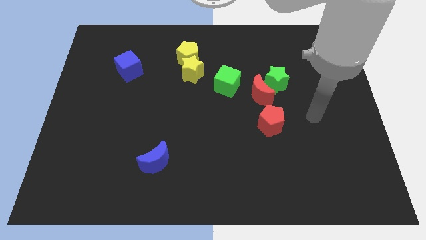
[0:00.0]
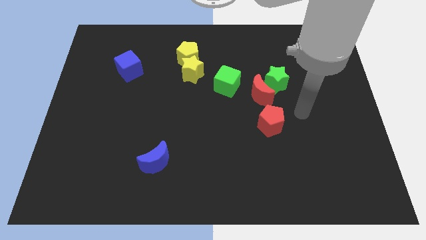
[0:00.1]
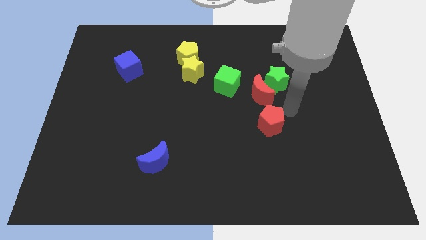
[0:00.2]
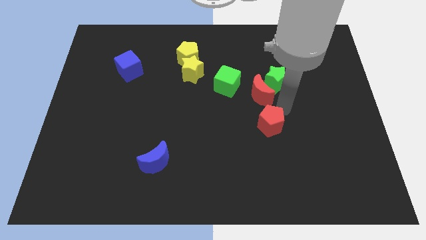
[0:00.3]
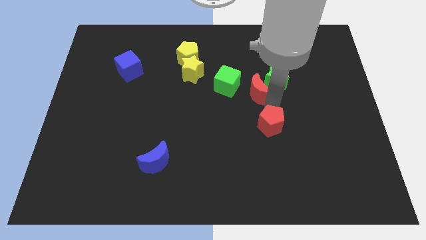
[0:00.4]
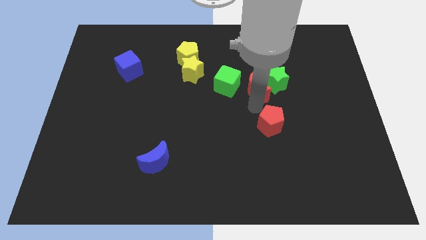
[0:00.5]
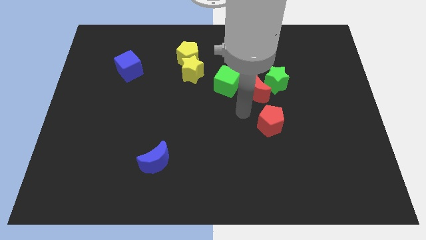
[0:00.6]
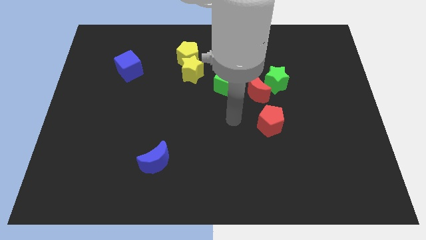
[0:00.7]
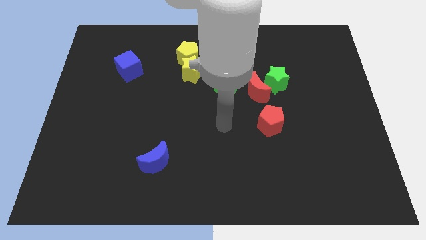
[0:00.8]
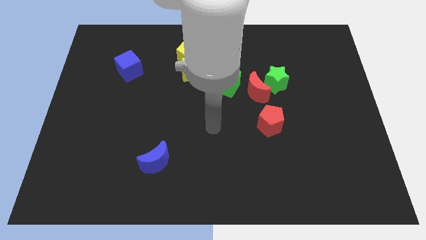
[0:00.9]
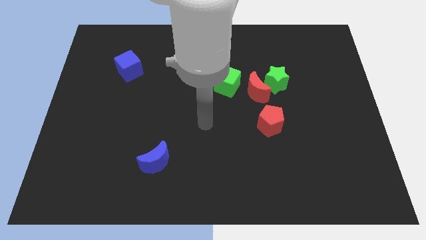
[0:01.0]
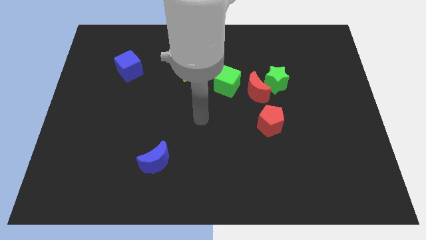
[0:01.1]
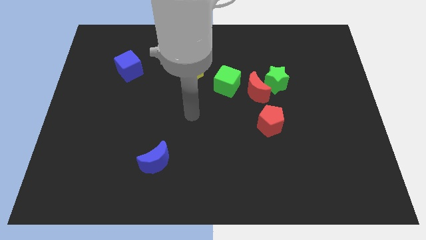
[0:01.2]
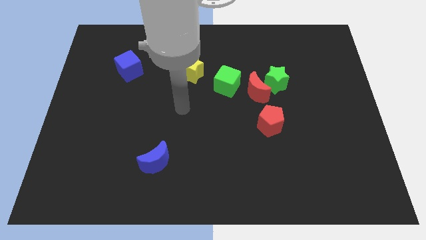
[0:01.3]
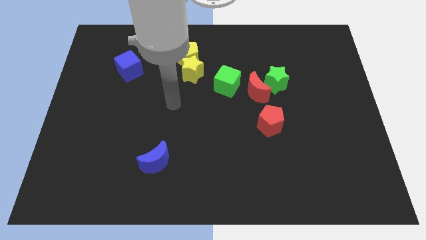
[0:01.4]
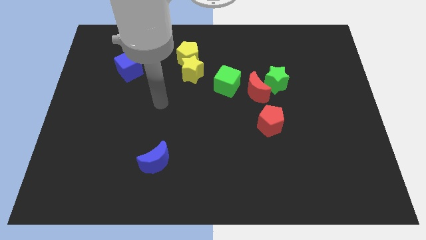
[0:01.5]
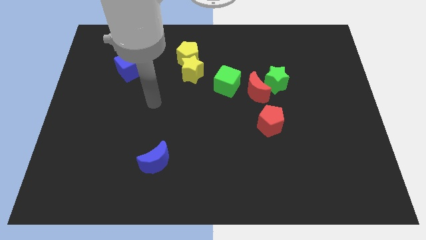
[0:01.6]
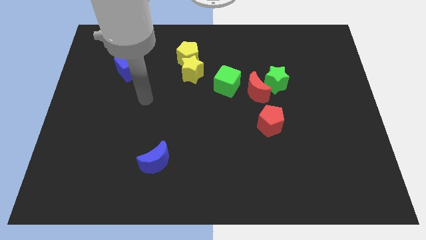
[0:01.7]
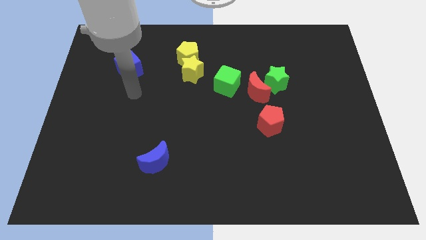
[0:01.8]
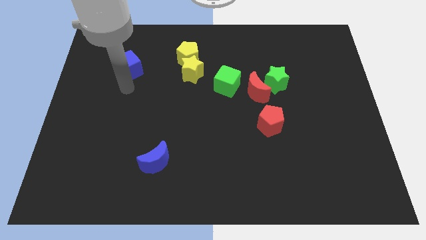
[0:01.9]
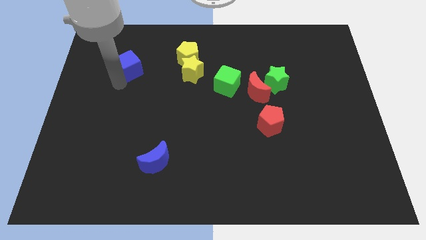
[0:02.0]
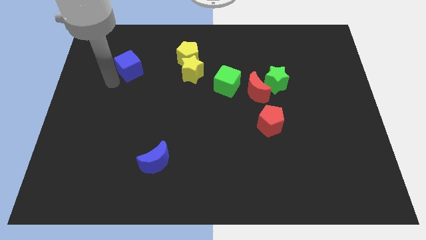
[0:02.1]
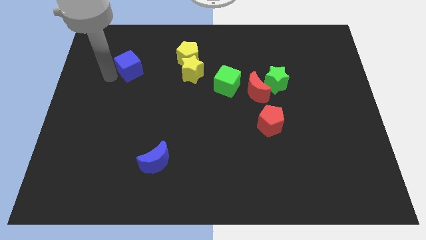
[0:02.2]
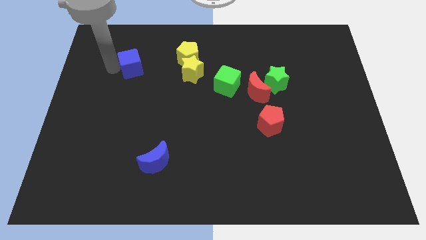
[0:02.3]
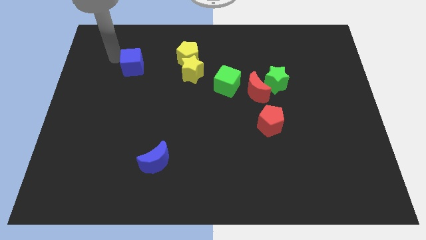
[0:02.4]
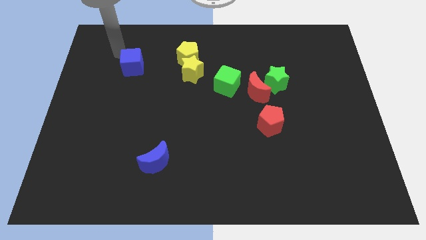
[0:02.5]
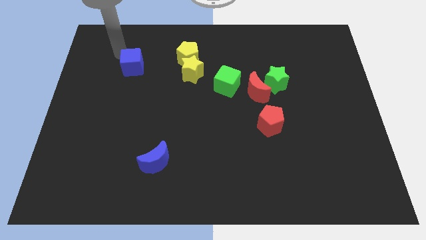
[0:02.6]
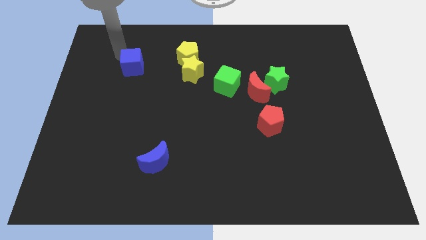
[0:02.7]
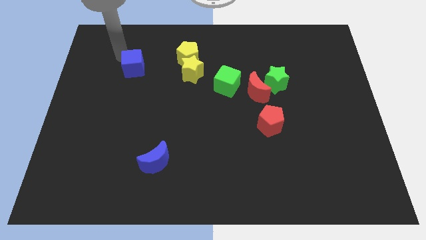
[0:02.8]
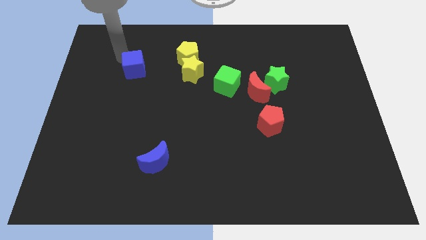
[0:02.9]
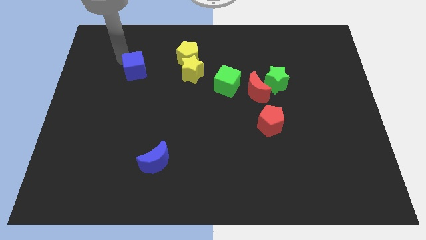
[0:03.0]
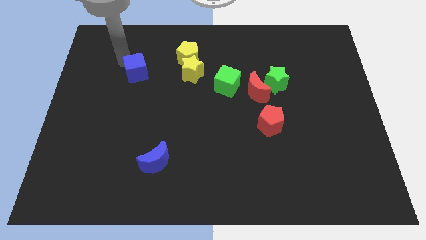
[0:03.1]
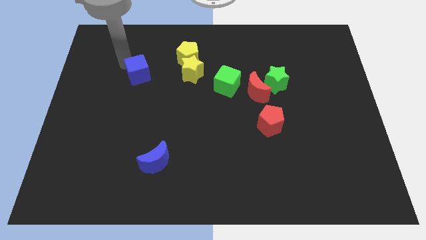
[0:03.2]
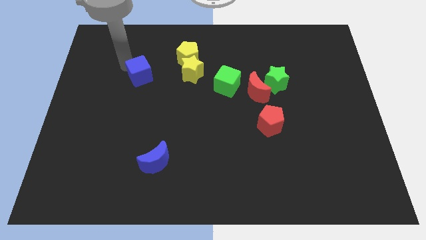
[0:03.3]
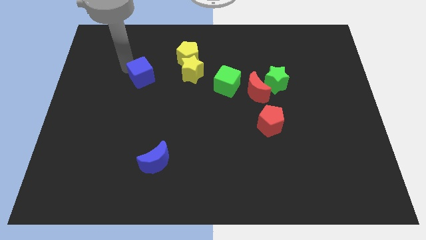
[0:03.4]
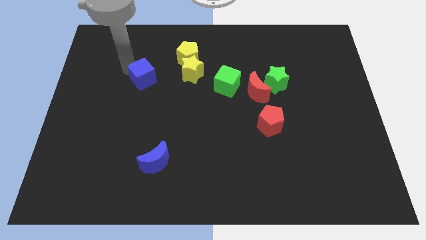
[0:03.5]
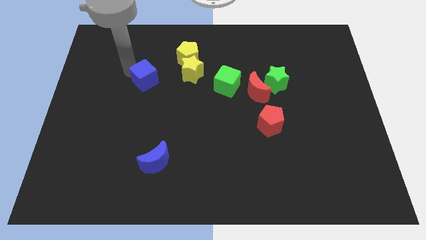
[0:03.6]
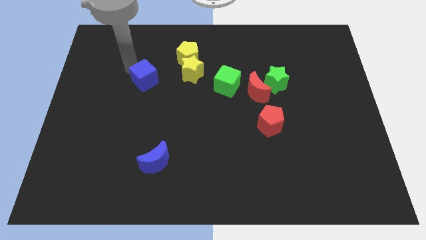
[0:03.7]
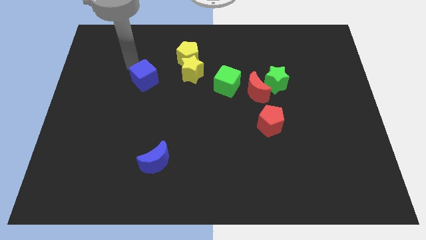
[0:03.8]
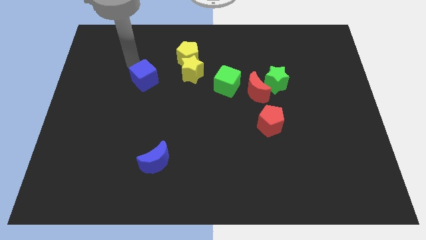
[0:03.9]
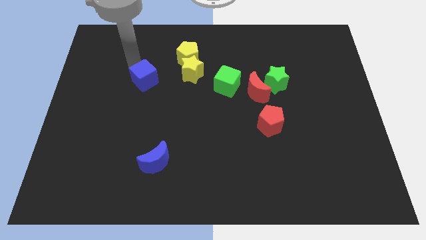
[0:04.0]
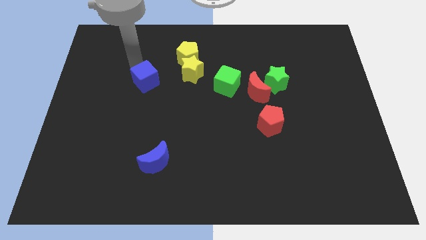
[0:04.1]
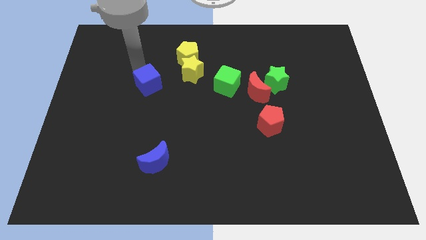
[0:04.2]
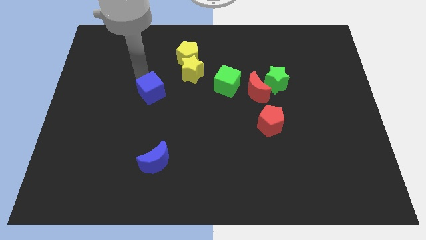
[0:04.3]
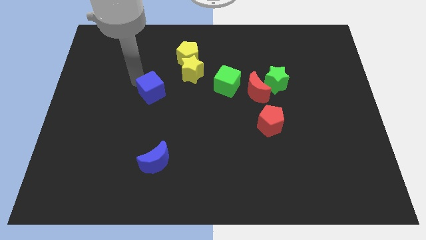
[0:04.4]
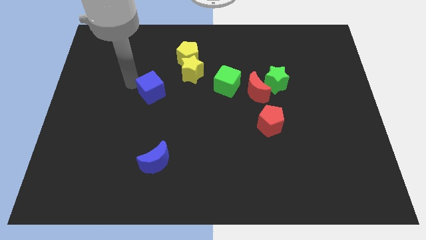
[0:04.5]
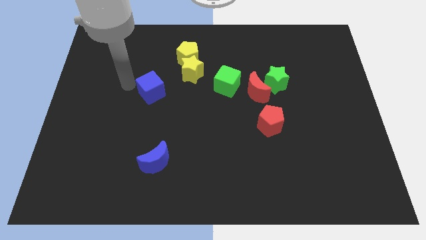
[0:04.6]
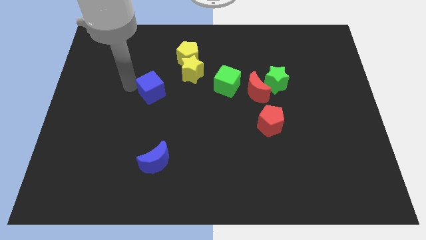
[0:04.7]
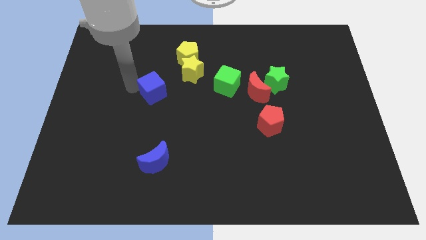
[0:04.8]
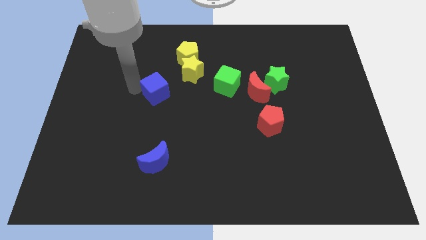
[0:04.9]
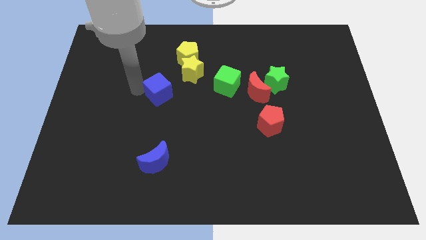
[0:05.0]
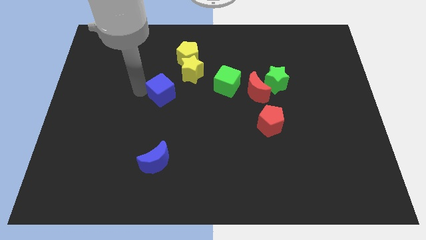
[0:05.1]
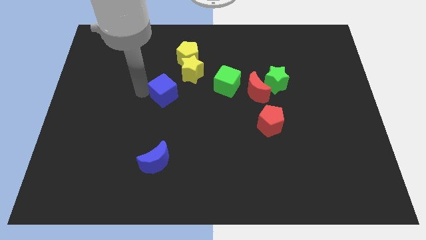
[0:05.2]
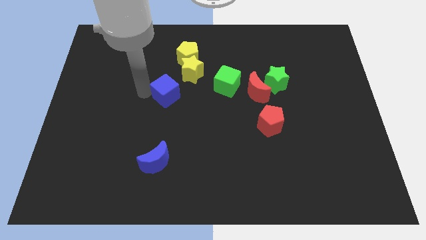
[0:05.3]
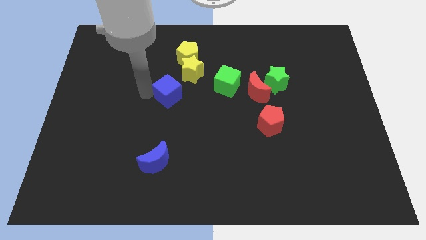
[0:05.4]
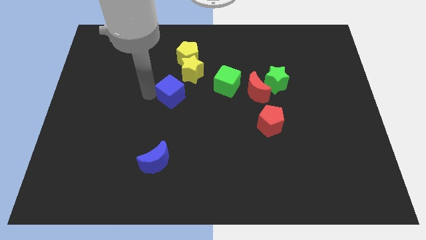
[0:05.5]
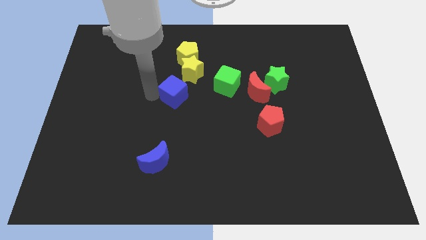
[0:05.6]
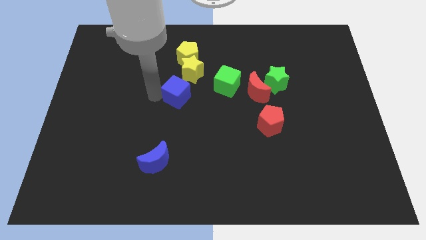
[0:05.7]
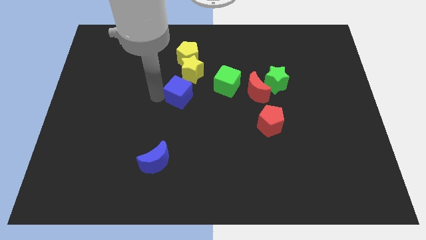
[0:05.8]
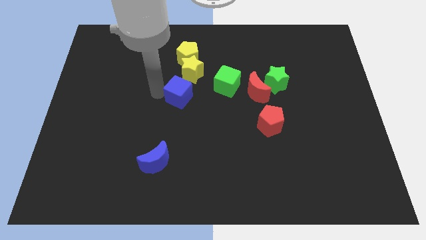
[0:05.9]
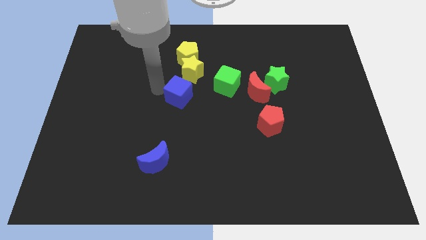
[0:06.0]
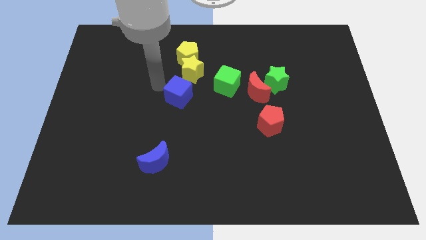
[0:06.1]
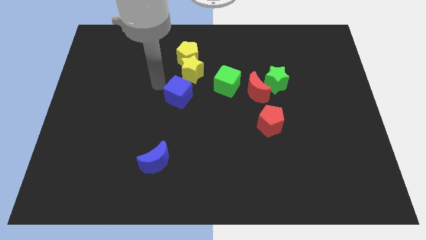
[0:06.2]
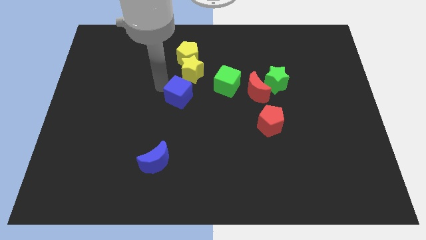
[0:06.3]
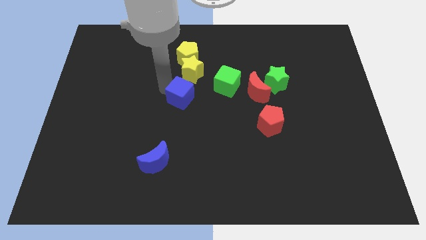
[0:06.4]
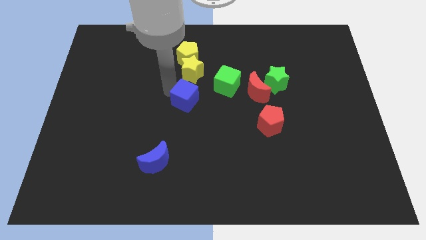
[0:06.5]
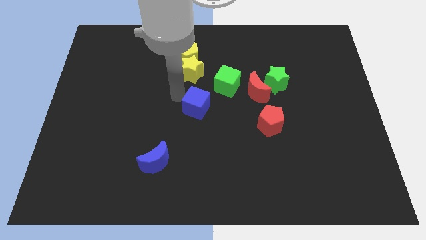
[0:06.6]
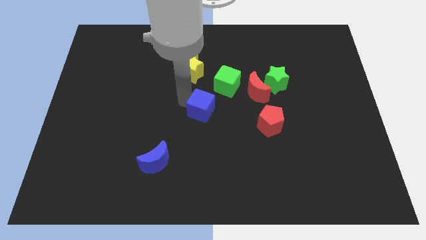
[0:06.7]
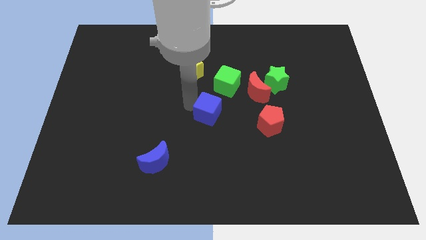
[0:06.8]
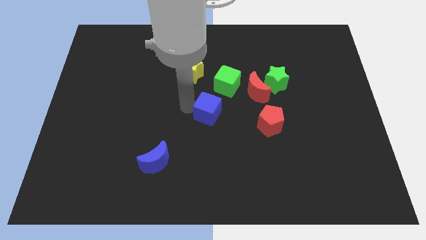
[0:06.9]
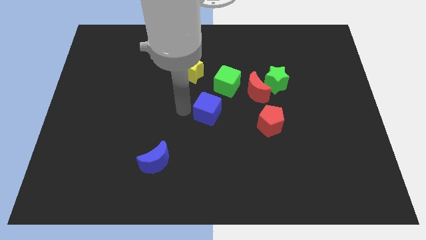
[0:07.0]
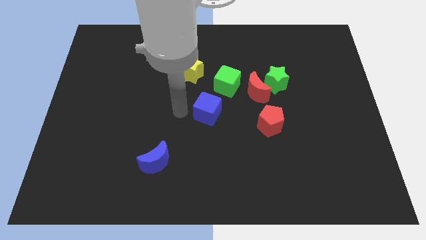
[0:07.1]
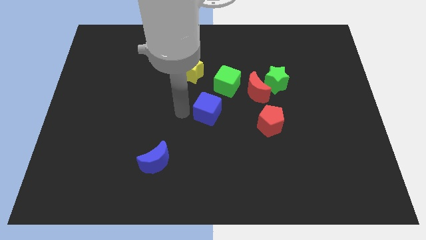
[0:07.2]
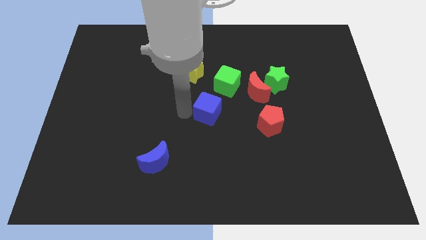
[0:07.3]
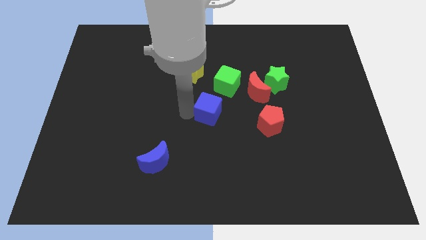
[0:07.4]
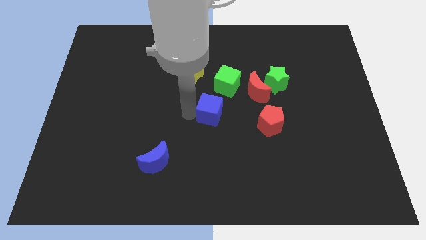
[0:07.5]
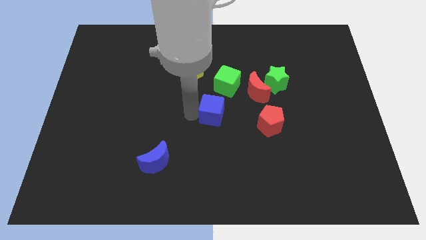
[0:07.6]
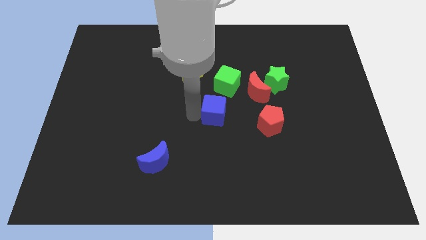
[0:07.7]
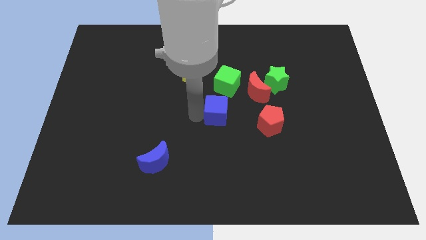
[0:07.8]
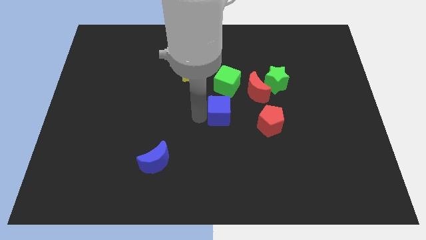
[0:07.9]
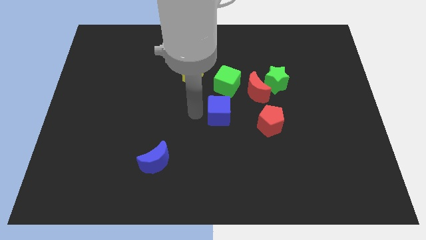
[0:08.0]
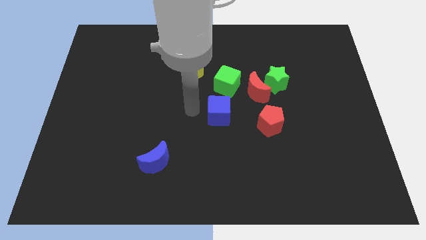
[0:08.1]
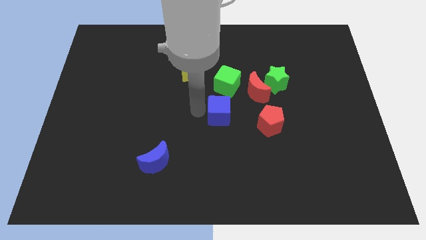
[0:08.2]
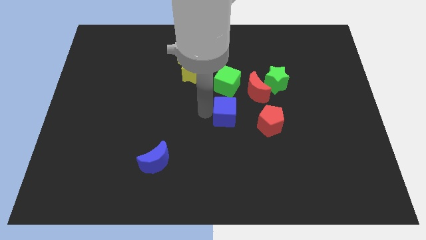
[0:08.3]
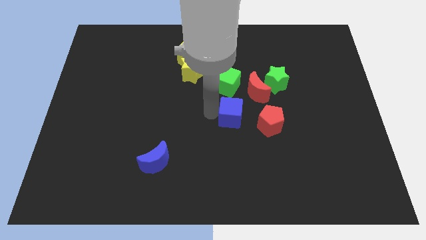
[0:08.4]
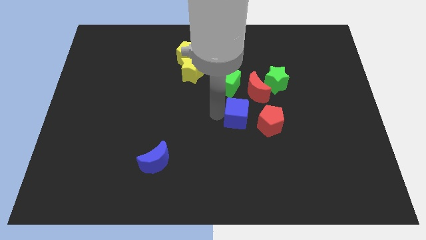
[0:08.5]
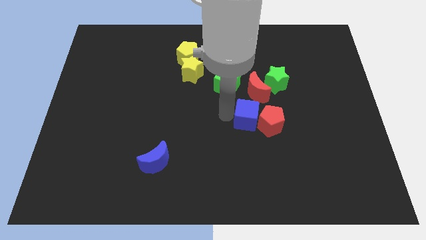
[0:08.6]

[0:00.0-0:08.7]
push the blue cube next to the red pentagon
